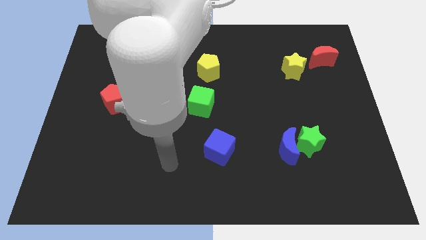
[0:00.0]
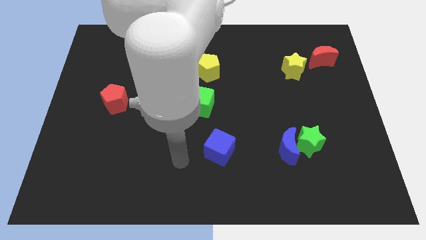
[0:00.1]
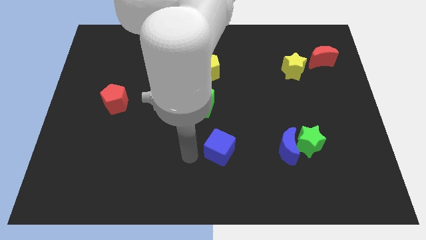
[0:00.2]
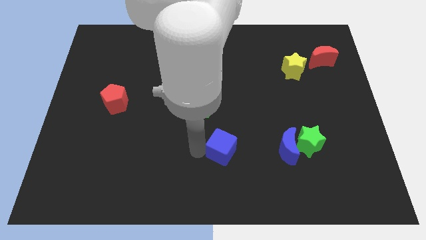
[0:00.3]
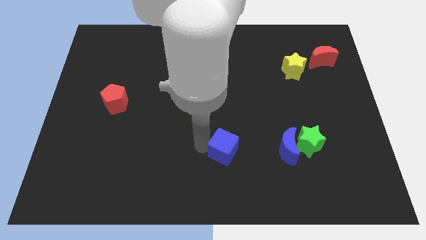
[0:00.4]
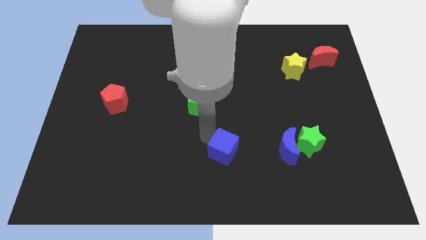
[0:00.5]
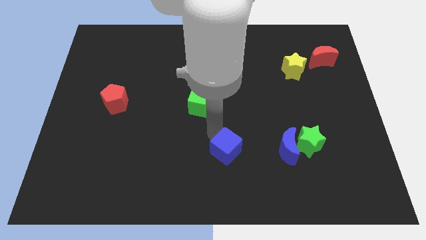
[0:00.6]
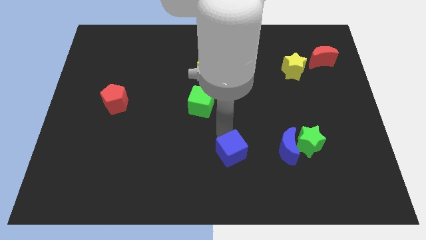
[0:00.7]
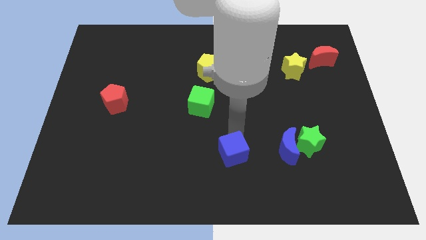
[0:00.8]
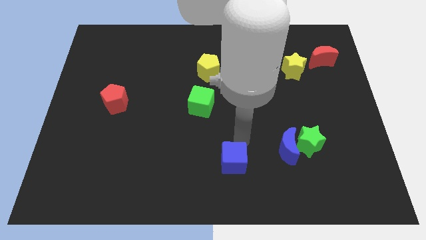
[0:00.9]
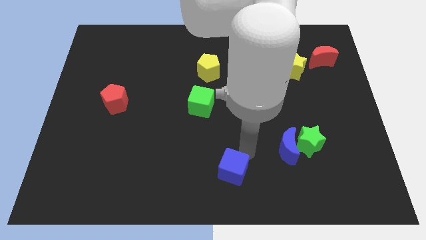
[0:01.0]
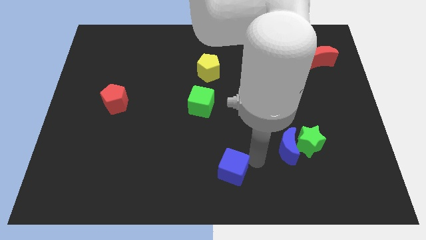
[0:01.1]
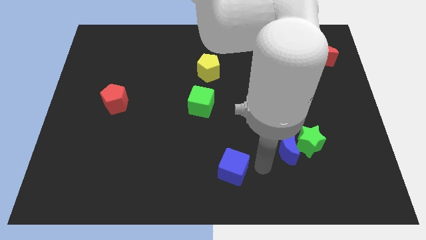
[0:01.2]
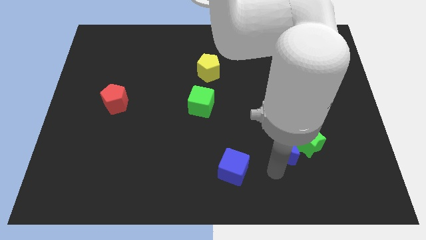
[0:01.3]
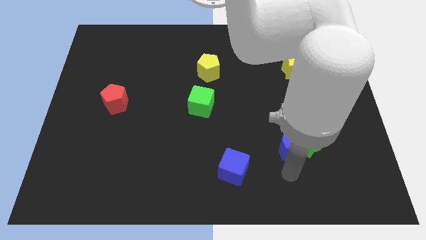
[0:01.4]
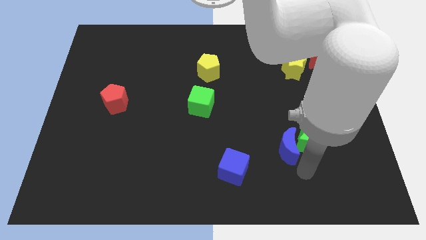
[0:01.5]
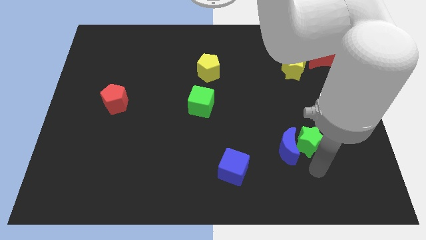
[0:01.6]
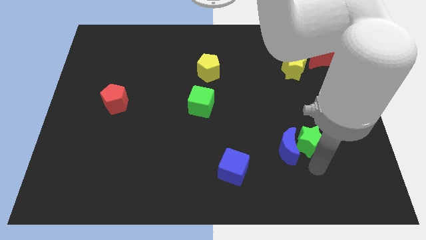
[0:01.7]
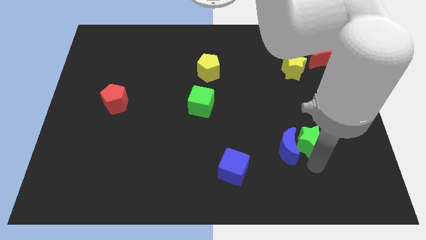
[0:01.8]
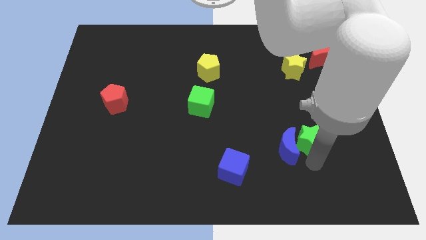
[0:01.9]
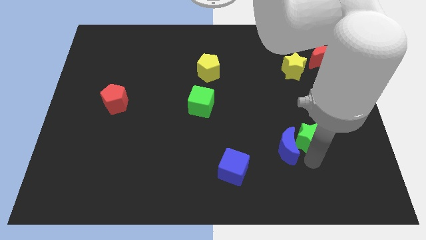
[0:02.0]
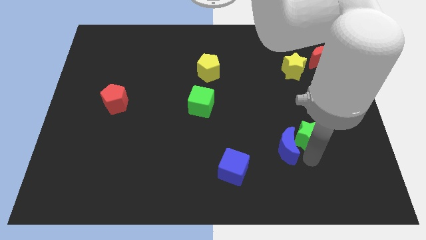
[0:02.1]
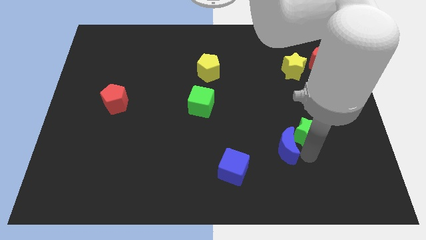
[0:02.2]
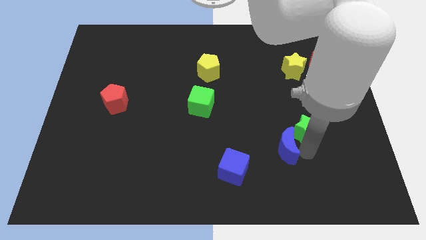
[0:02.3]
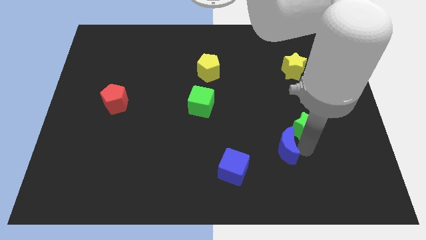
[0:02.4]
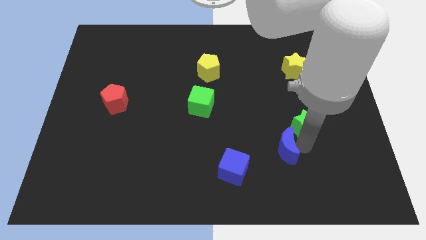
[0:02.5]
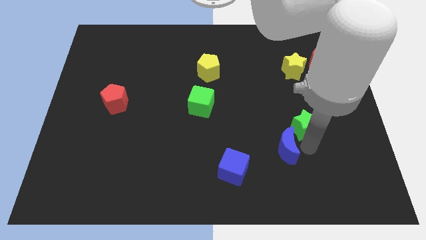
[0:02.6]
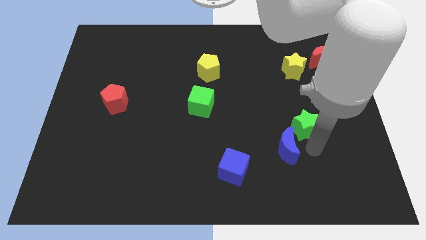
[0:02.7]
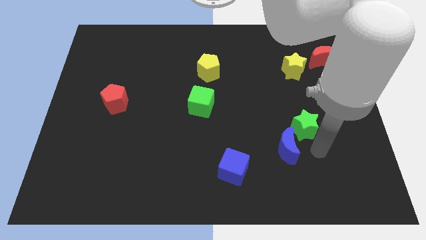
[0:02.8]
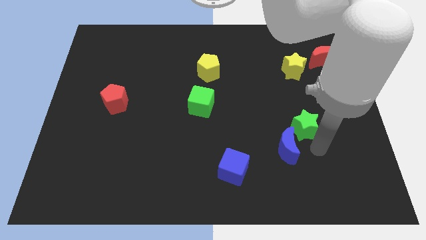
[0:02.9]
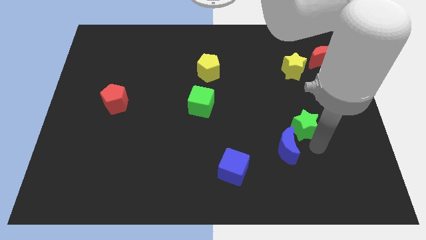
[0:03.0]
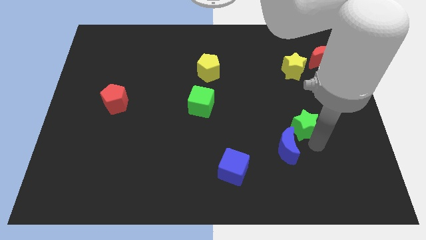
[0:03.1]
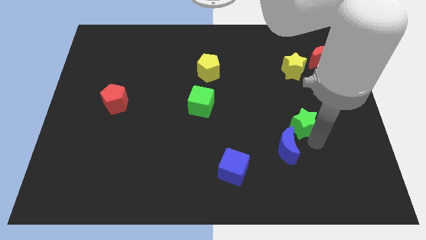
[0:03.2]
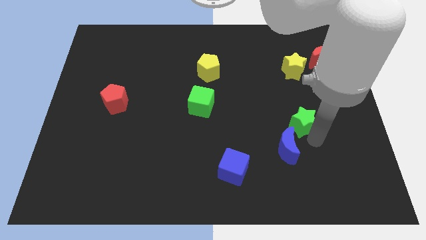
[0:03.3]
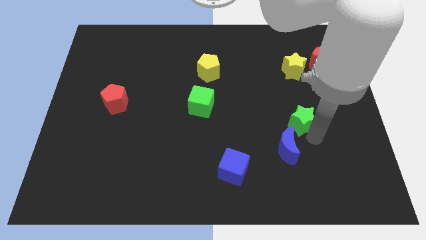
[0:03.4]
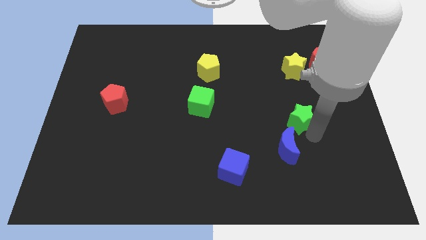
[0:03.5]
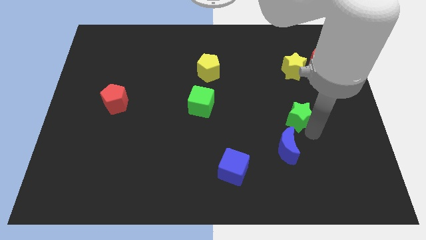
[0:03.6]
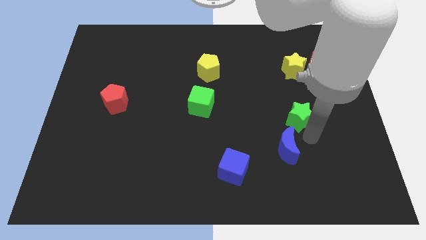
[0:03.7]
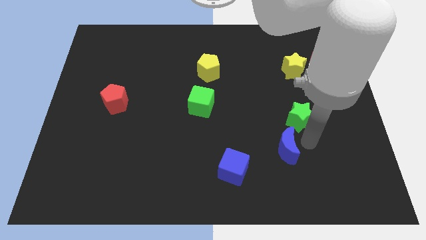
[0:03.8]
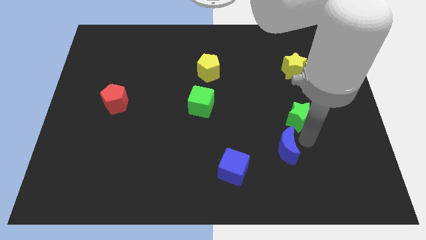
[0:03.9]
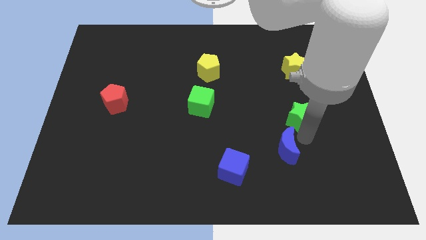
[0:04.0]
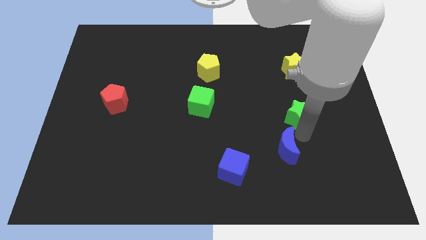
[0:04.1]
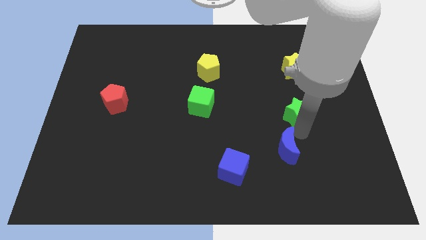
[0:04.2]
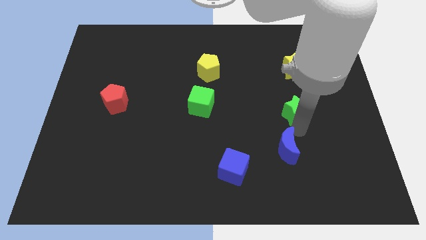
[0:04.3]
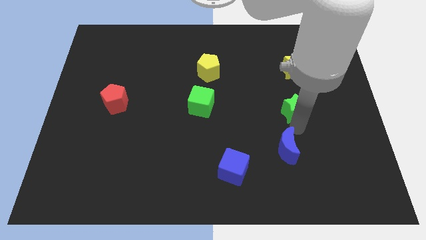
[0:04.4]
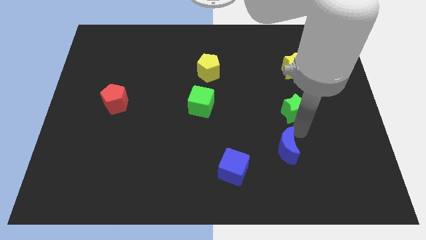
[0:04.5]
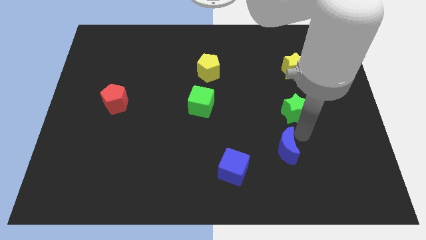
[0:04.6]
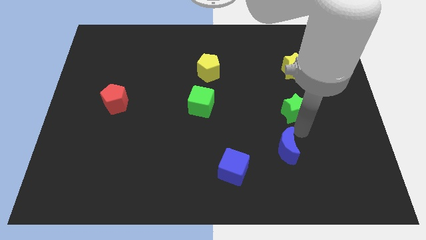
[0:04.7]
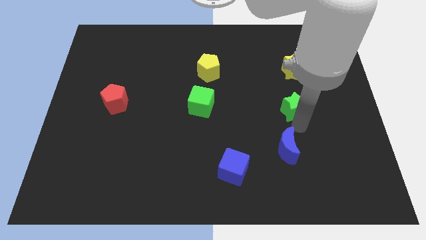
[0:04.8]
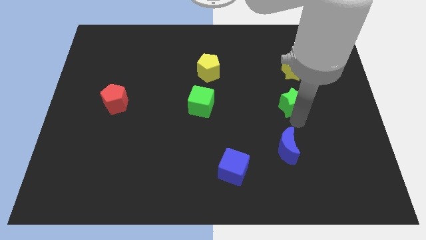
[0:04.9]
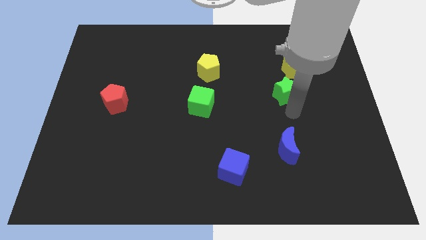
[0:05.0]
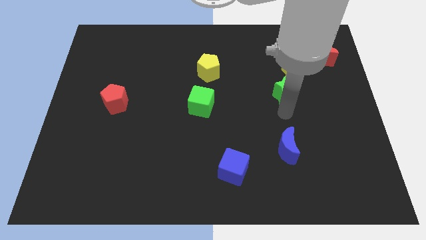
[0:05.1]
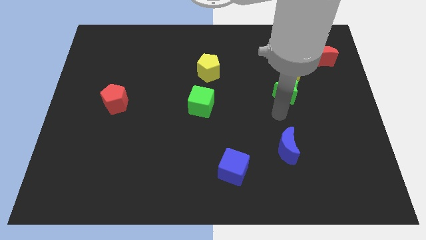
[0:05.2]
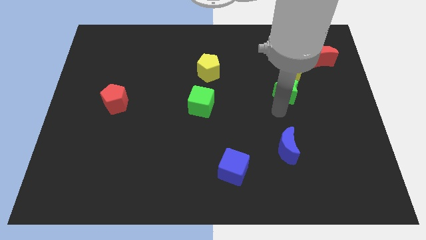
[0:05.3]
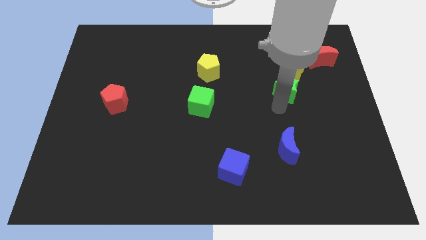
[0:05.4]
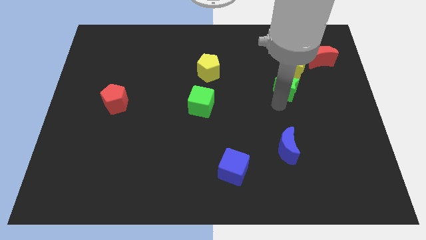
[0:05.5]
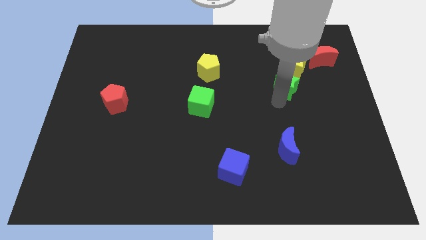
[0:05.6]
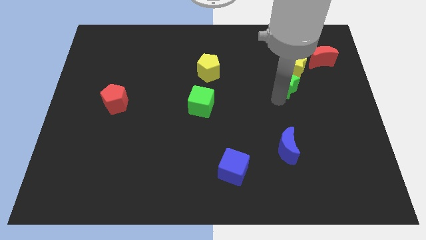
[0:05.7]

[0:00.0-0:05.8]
move the green star towards the yellow star

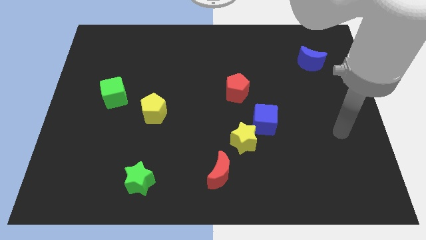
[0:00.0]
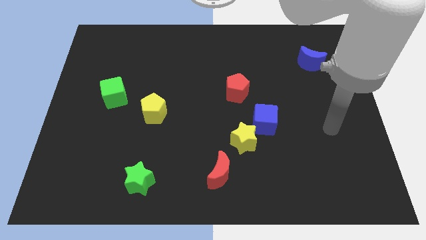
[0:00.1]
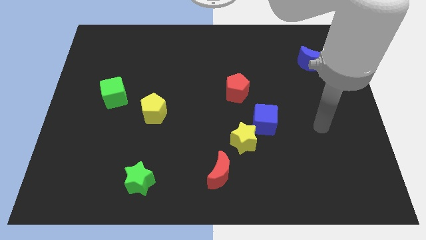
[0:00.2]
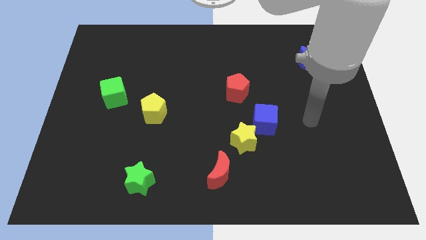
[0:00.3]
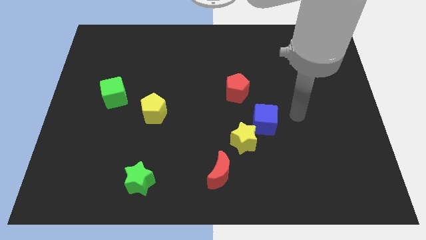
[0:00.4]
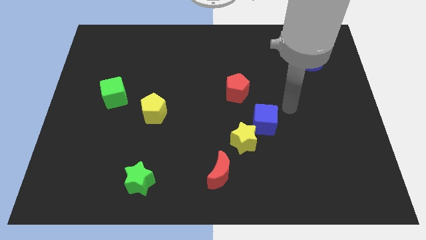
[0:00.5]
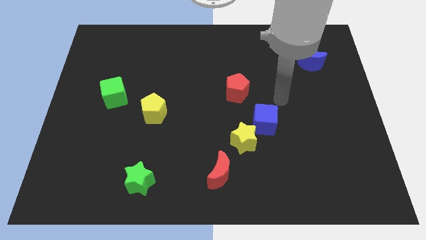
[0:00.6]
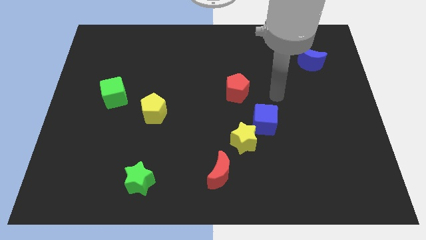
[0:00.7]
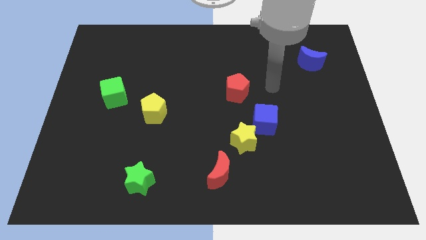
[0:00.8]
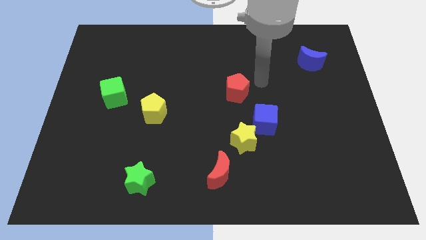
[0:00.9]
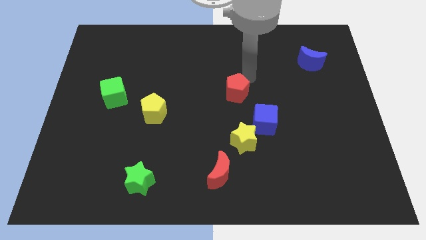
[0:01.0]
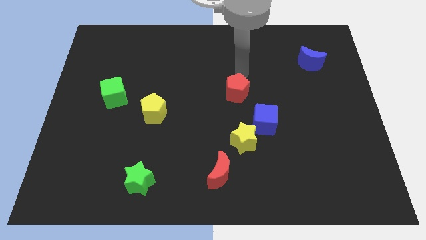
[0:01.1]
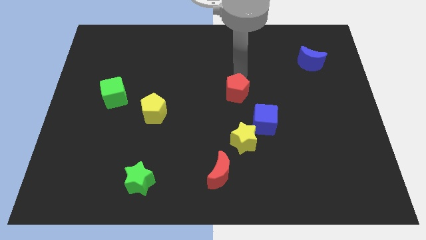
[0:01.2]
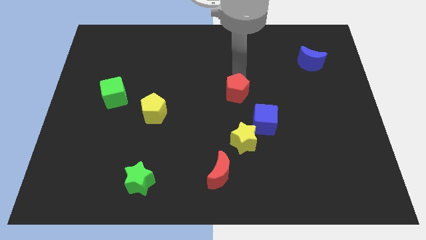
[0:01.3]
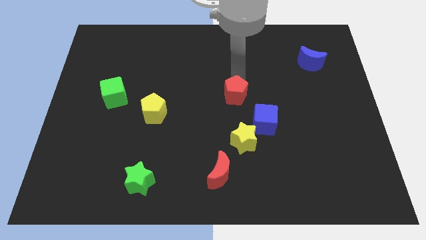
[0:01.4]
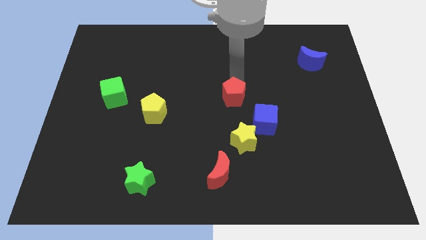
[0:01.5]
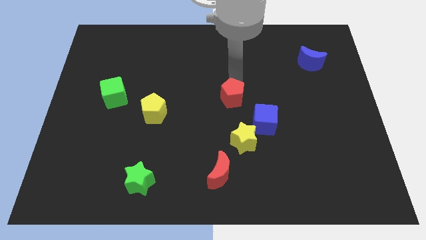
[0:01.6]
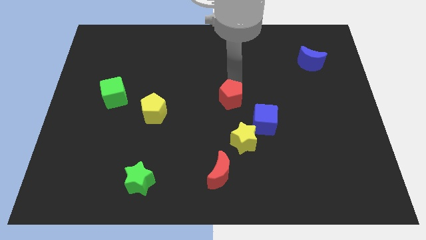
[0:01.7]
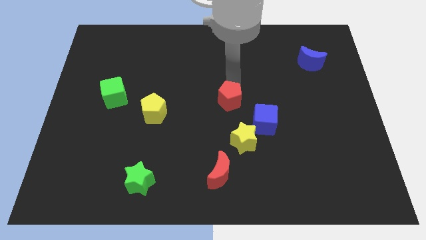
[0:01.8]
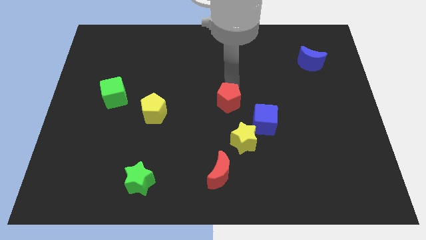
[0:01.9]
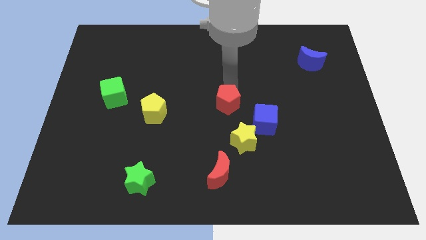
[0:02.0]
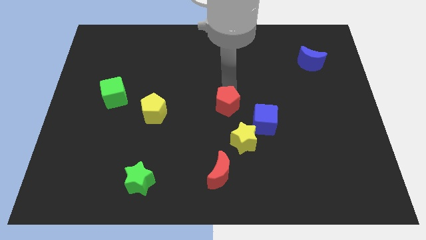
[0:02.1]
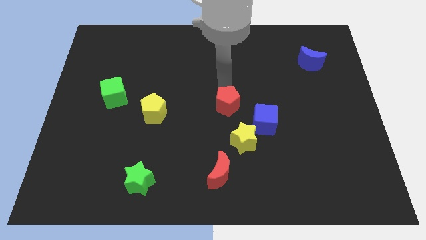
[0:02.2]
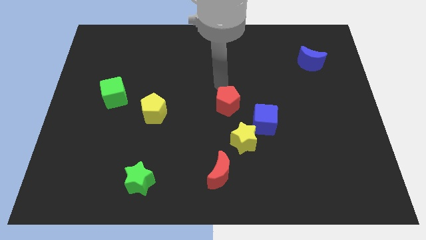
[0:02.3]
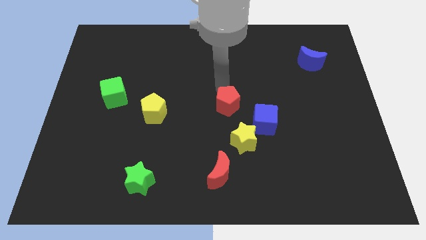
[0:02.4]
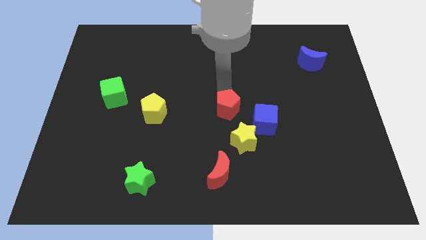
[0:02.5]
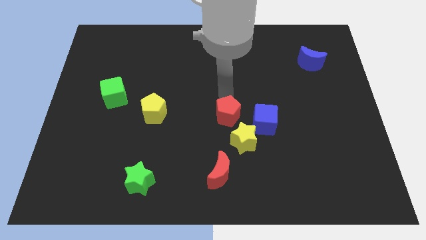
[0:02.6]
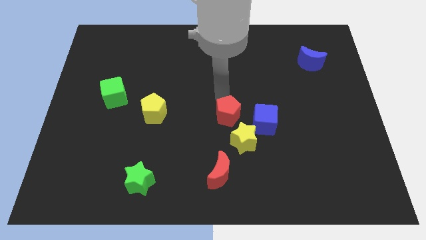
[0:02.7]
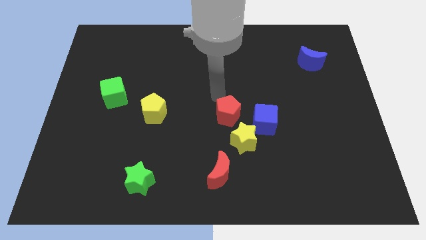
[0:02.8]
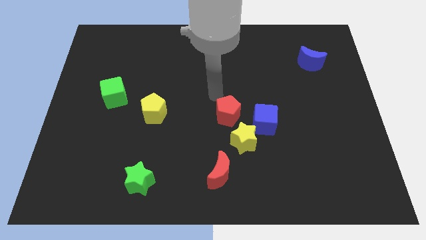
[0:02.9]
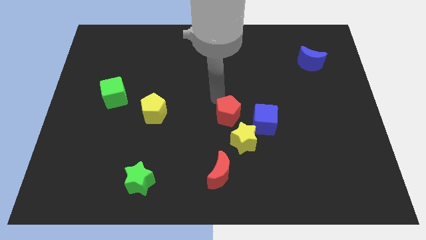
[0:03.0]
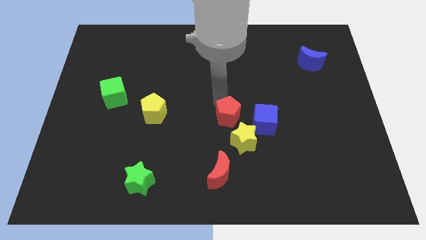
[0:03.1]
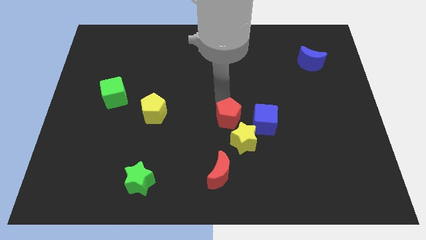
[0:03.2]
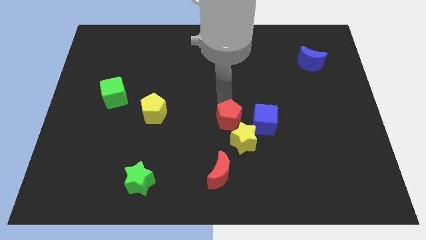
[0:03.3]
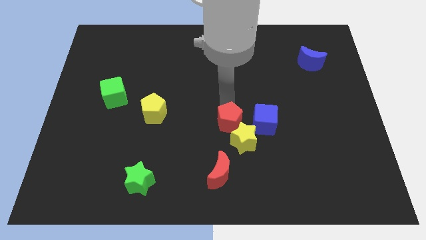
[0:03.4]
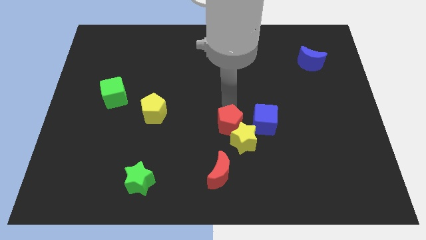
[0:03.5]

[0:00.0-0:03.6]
push the red pentagon close to the yellow star
